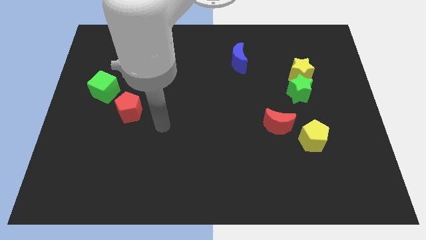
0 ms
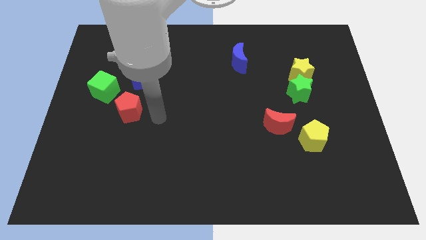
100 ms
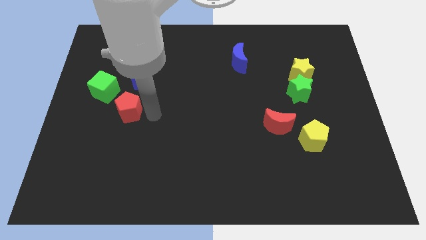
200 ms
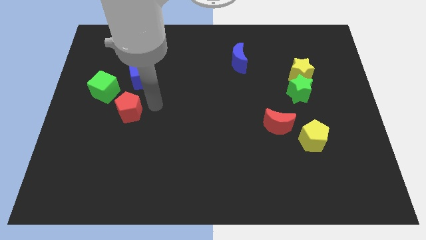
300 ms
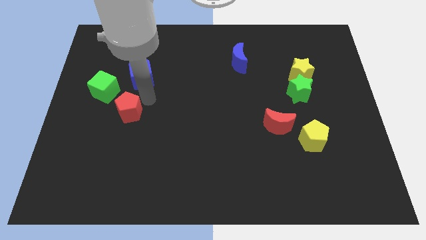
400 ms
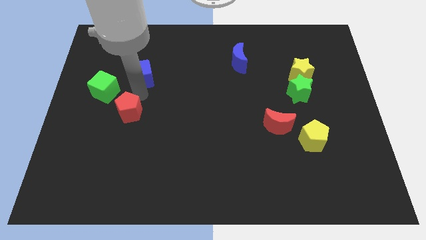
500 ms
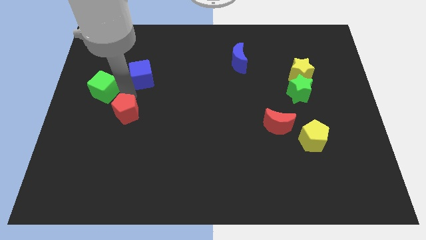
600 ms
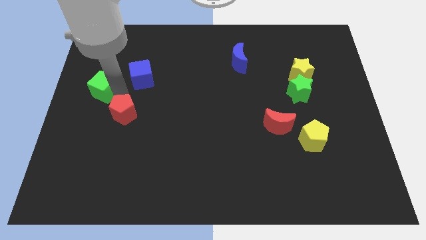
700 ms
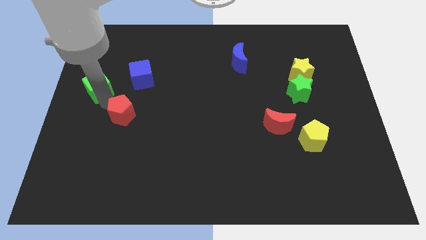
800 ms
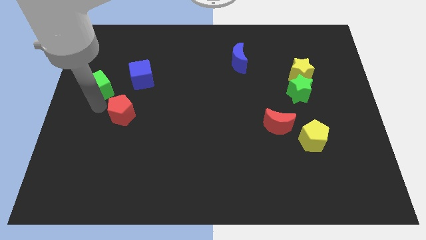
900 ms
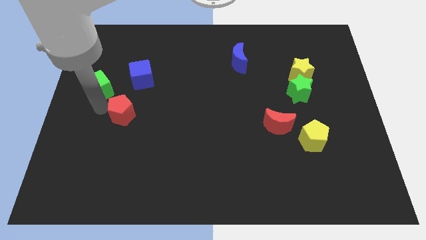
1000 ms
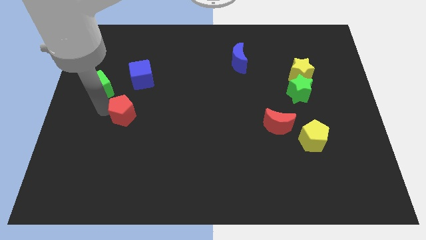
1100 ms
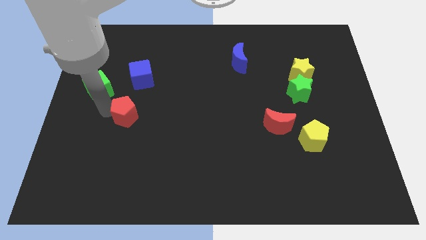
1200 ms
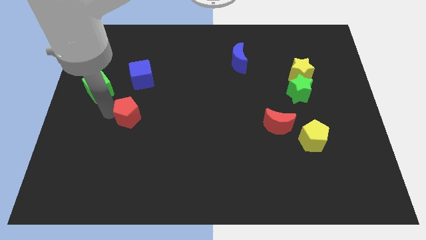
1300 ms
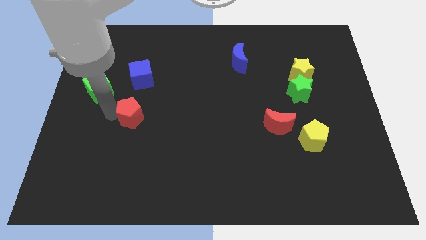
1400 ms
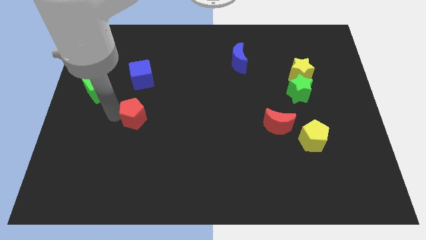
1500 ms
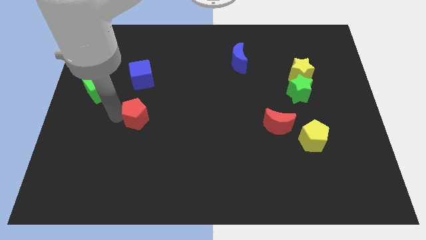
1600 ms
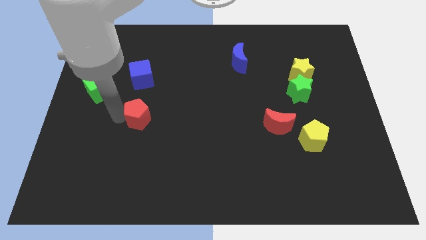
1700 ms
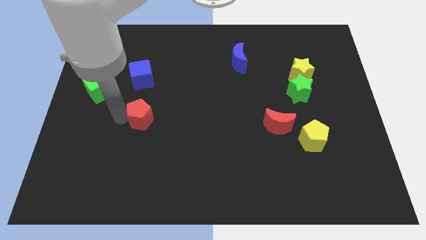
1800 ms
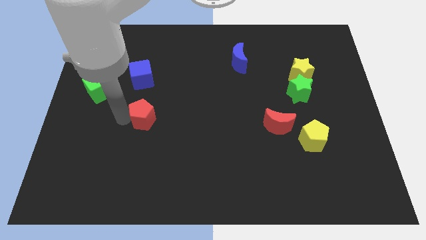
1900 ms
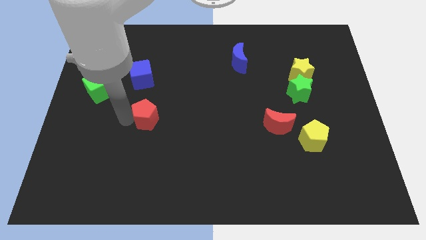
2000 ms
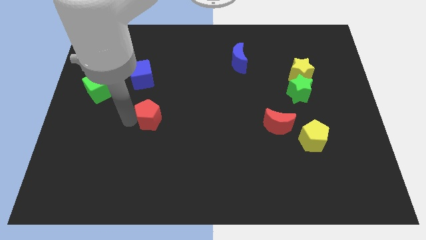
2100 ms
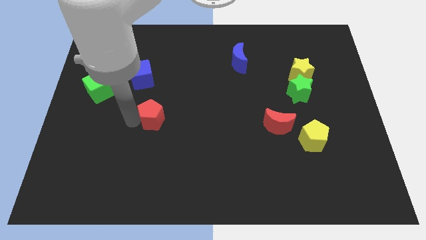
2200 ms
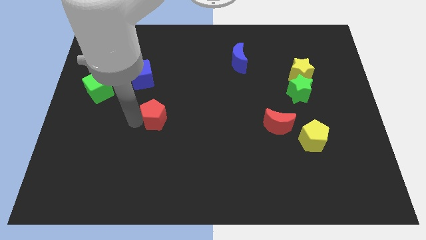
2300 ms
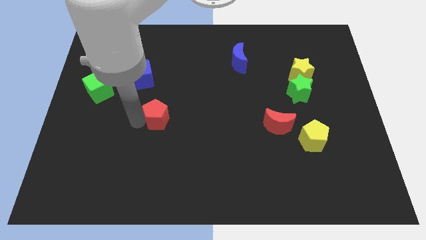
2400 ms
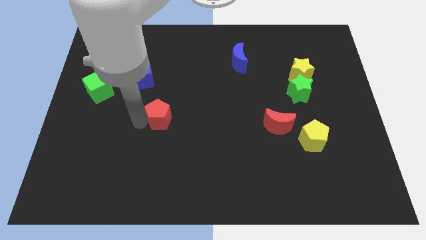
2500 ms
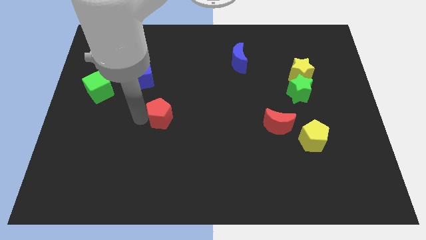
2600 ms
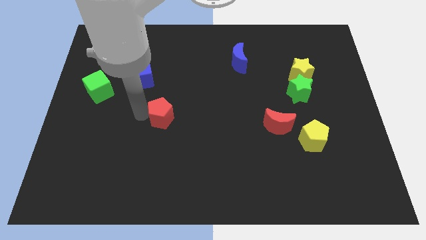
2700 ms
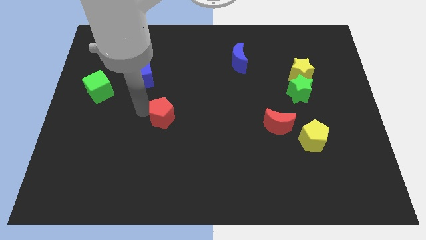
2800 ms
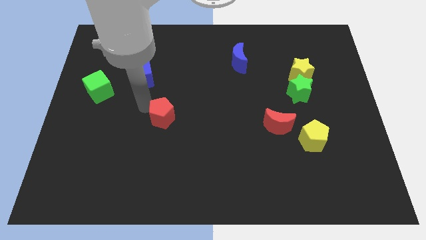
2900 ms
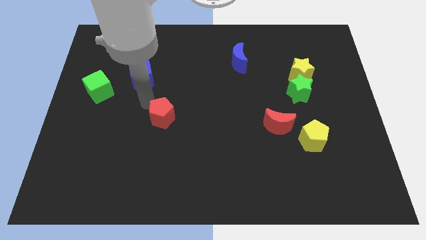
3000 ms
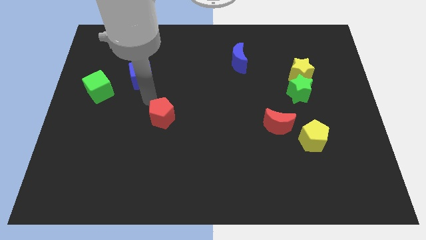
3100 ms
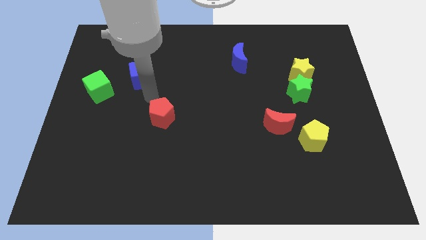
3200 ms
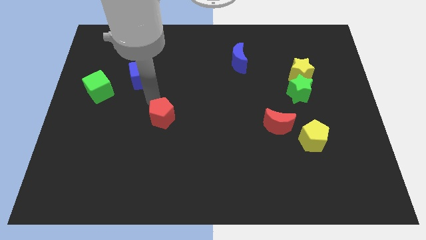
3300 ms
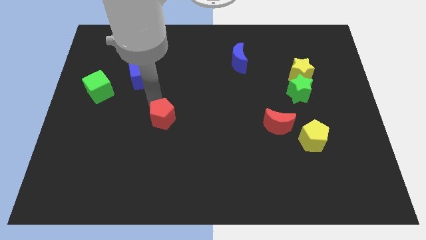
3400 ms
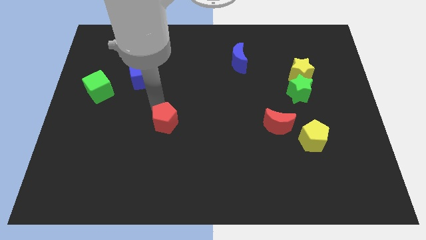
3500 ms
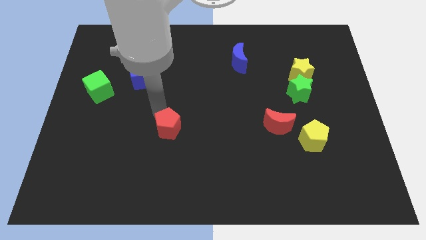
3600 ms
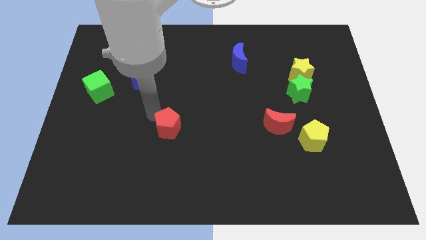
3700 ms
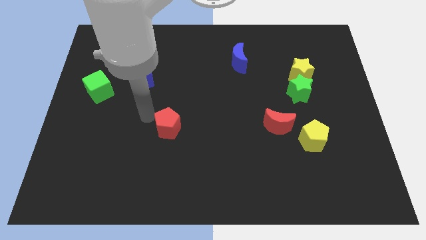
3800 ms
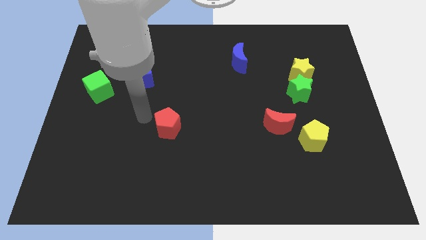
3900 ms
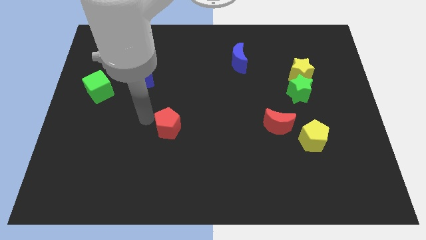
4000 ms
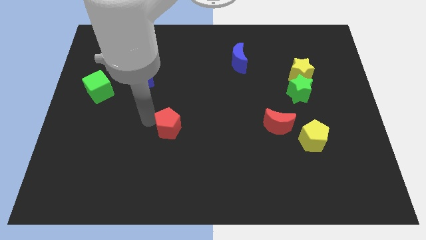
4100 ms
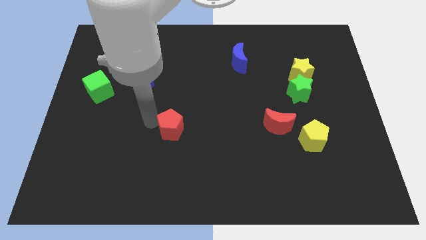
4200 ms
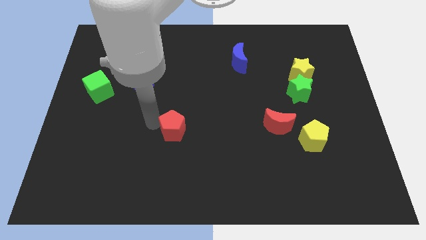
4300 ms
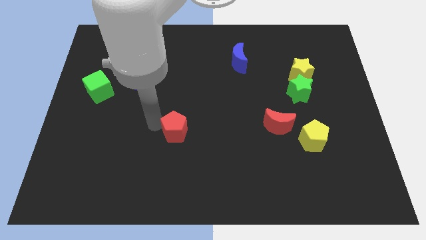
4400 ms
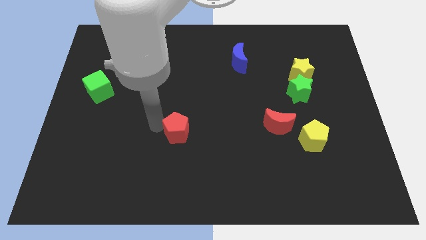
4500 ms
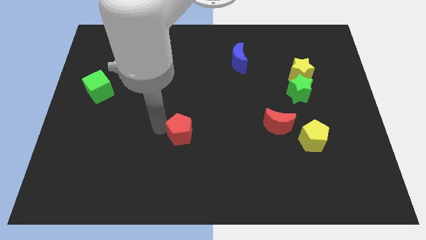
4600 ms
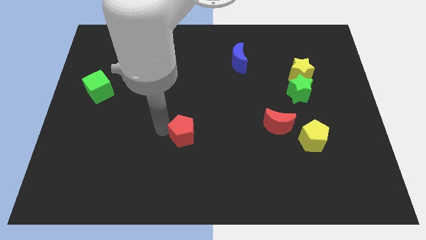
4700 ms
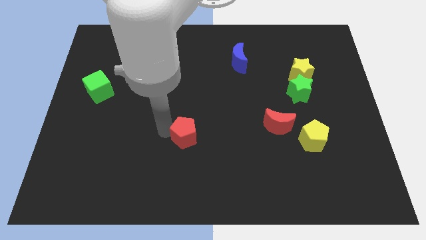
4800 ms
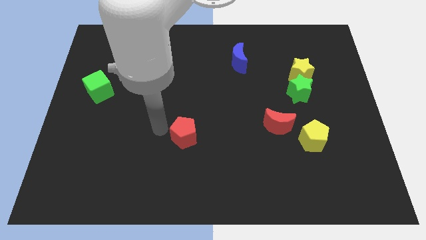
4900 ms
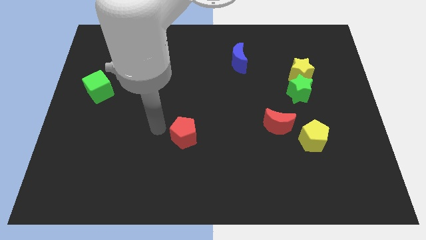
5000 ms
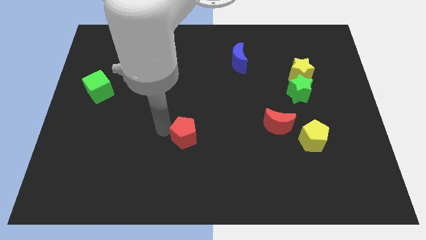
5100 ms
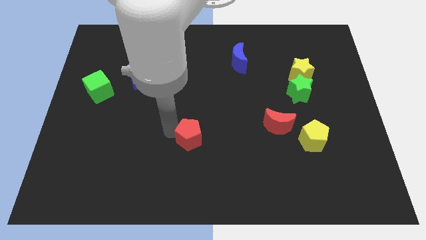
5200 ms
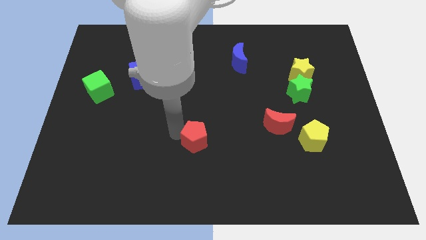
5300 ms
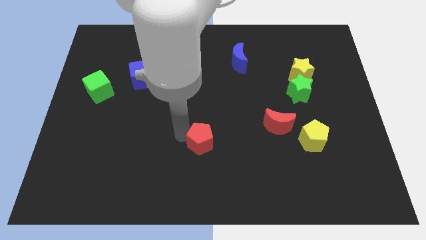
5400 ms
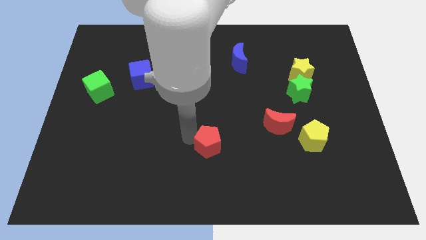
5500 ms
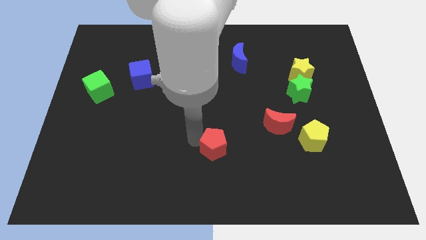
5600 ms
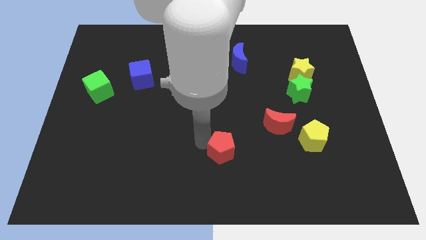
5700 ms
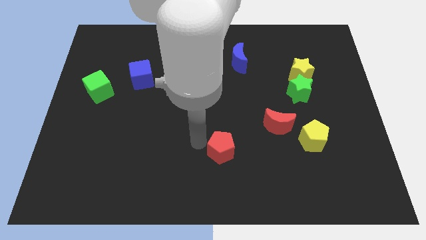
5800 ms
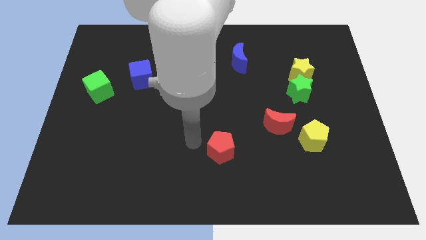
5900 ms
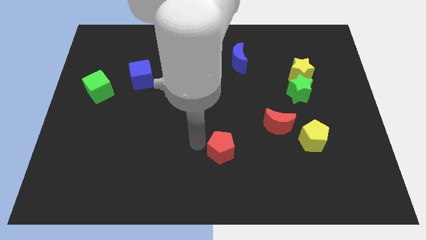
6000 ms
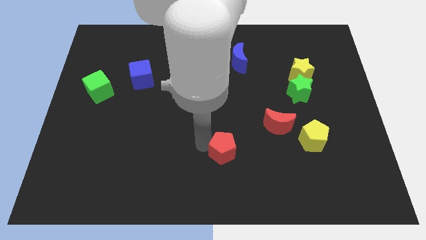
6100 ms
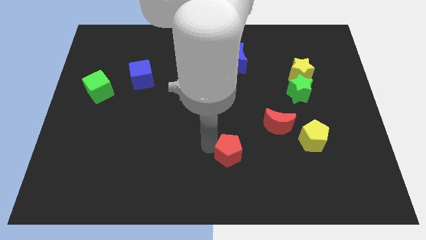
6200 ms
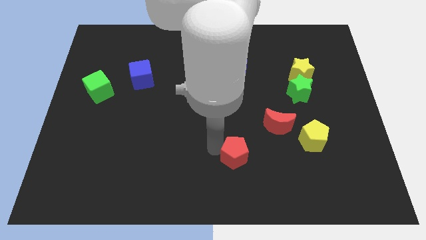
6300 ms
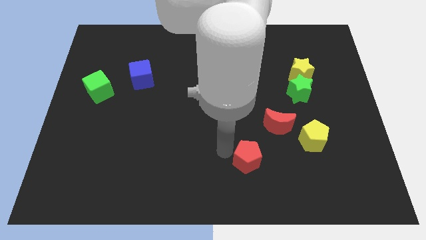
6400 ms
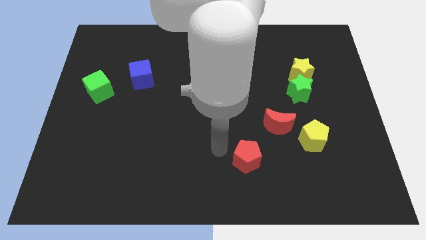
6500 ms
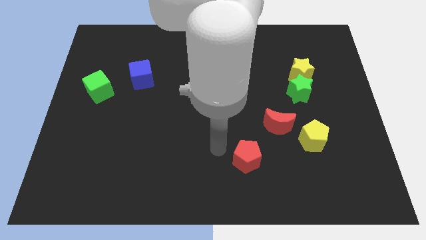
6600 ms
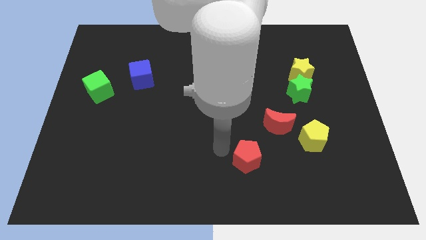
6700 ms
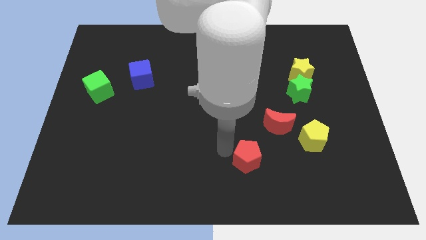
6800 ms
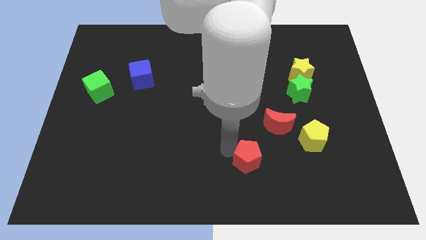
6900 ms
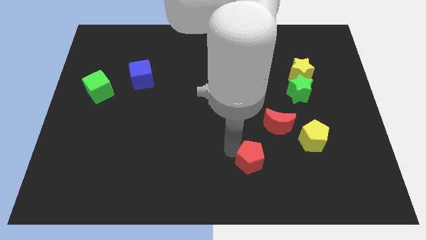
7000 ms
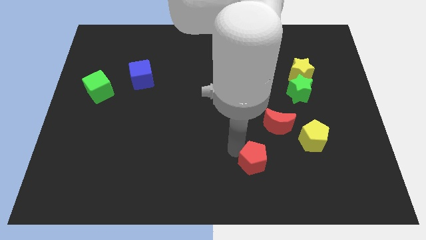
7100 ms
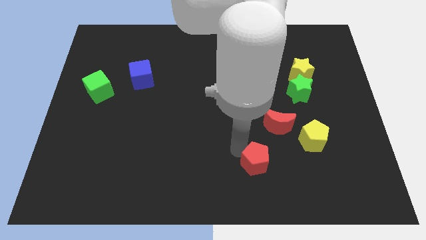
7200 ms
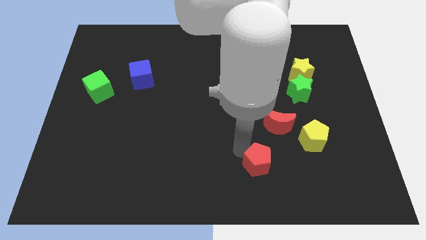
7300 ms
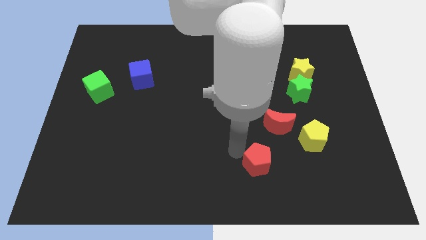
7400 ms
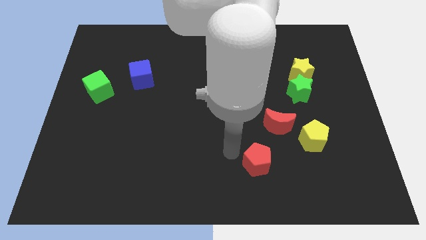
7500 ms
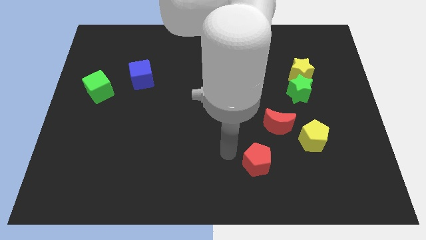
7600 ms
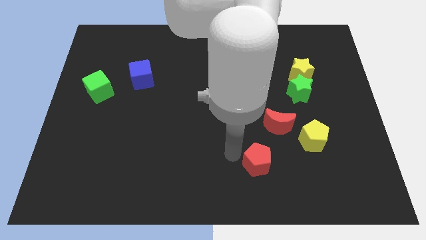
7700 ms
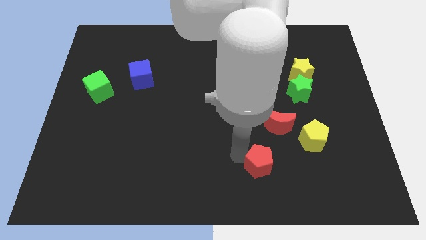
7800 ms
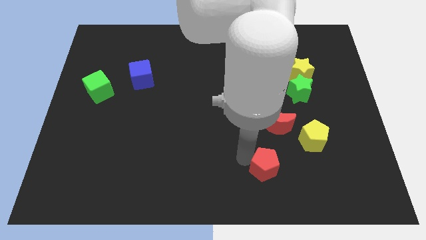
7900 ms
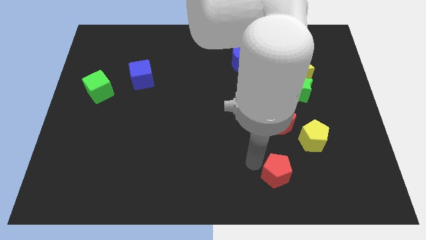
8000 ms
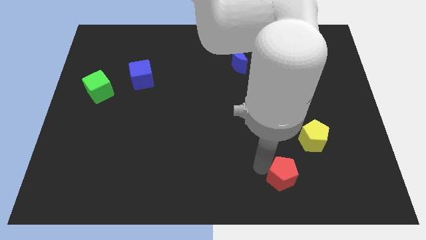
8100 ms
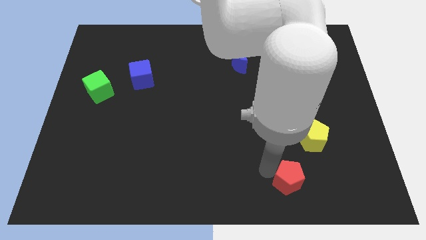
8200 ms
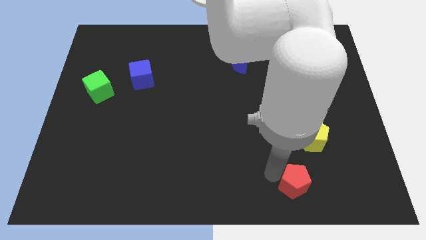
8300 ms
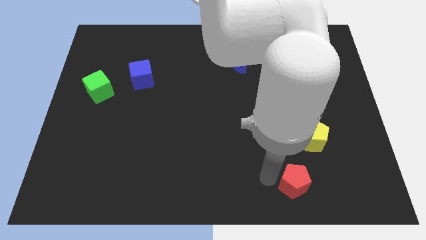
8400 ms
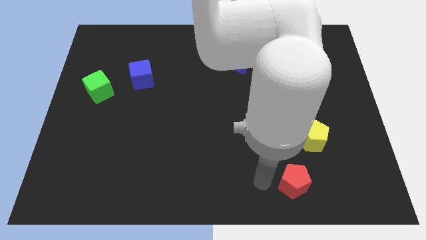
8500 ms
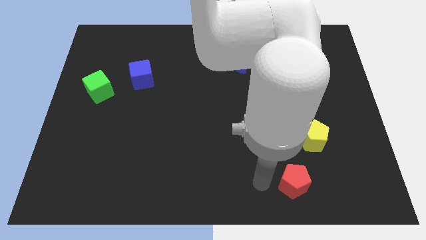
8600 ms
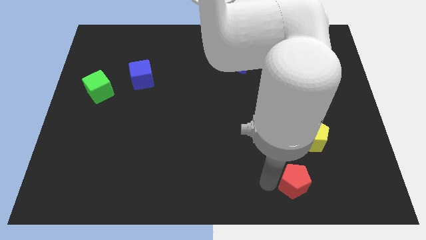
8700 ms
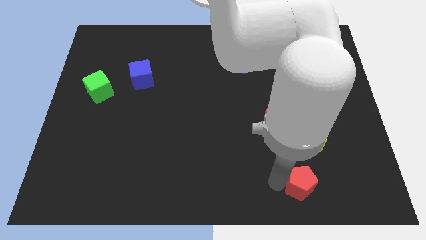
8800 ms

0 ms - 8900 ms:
put the red pentagon below the yellow pentagon
